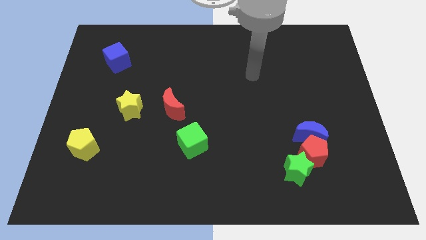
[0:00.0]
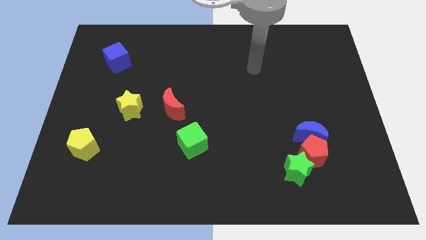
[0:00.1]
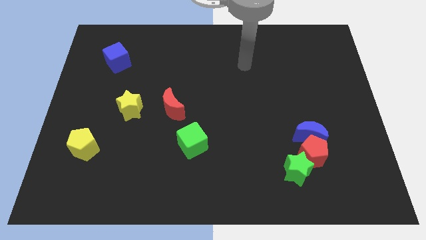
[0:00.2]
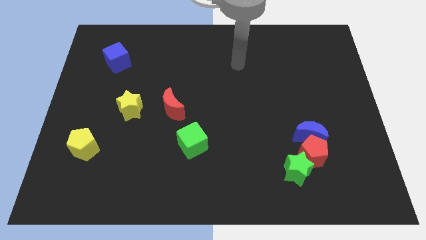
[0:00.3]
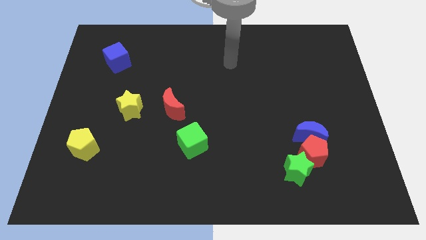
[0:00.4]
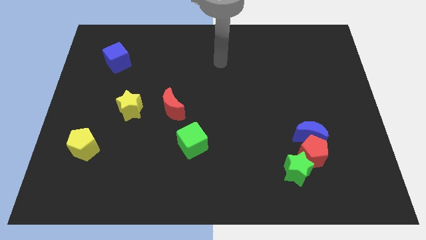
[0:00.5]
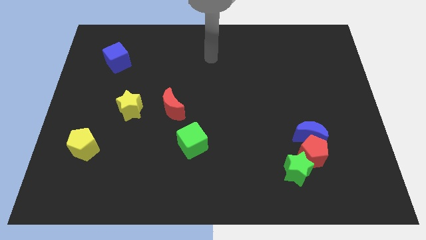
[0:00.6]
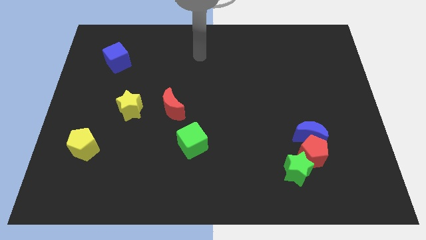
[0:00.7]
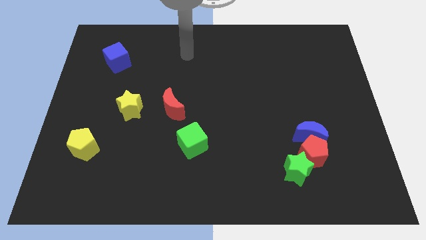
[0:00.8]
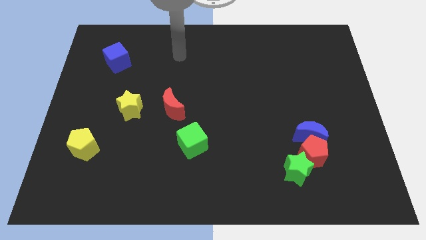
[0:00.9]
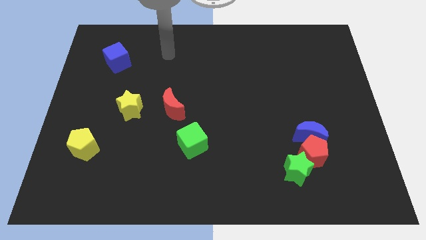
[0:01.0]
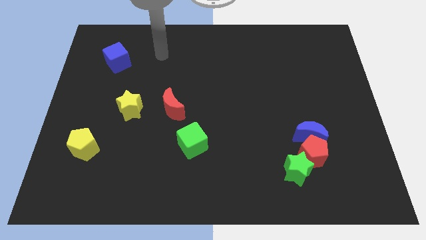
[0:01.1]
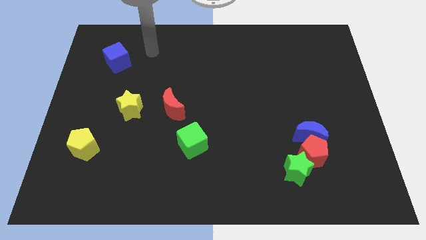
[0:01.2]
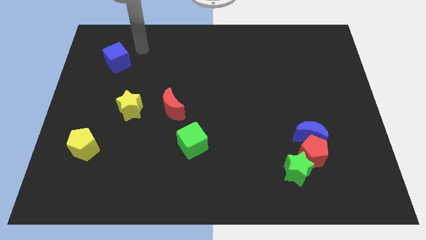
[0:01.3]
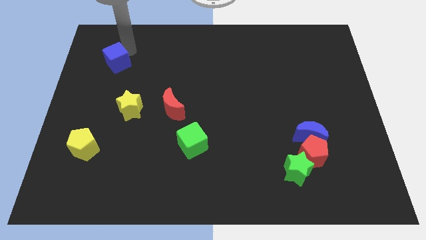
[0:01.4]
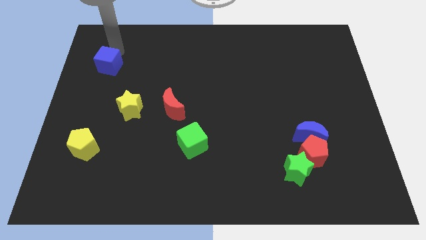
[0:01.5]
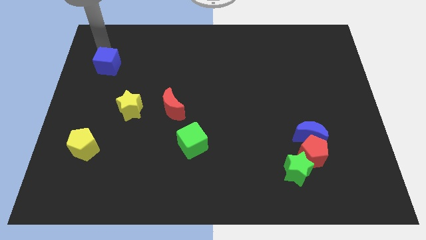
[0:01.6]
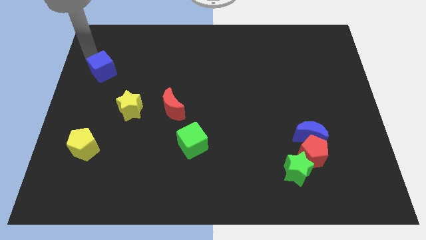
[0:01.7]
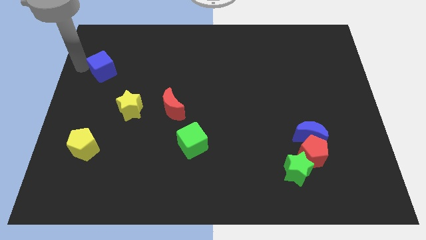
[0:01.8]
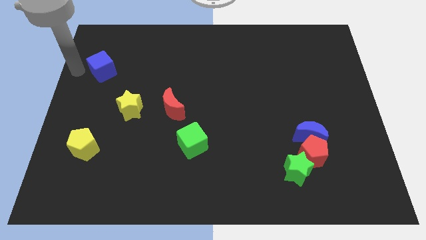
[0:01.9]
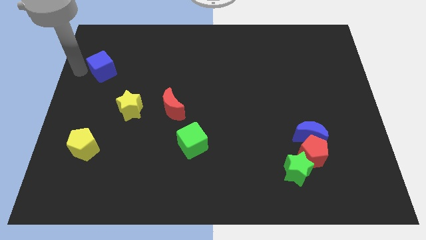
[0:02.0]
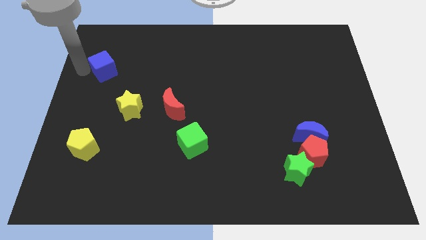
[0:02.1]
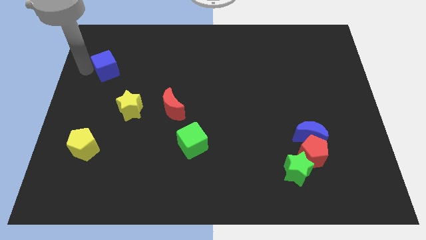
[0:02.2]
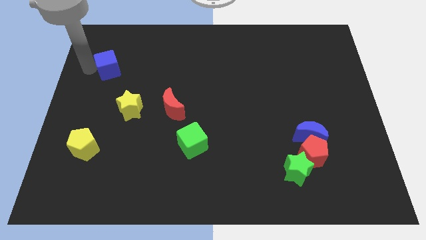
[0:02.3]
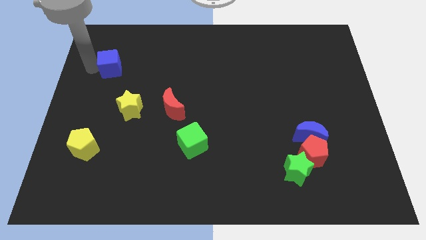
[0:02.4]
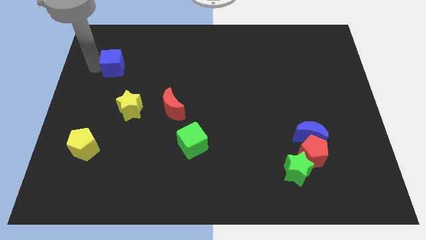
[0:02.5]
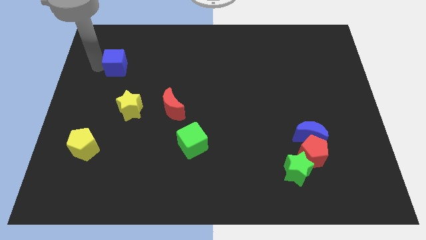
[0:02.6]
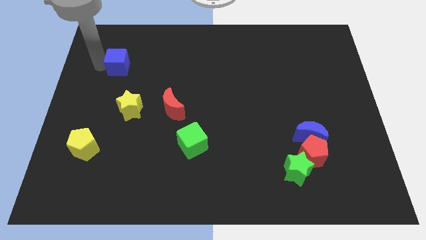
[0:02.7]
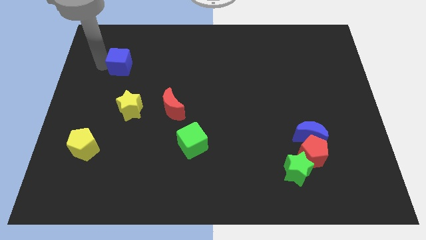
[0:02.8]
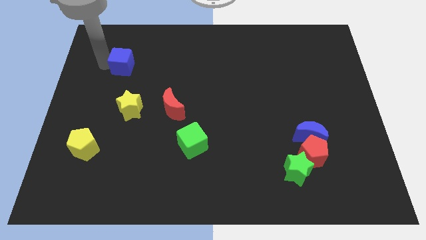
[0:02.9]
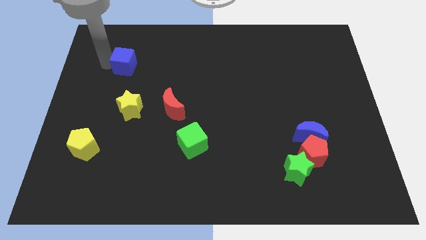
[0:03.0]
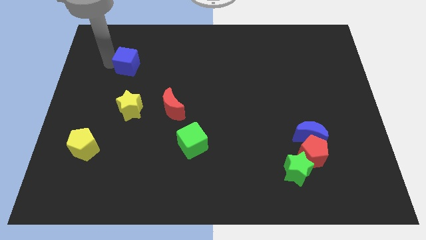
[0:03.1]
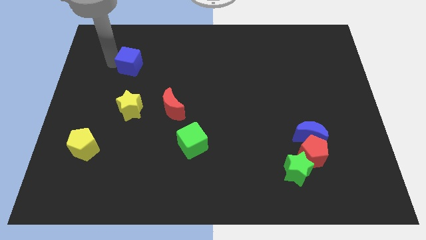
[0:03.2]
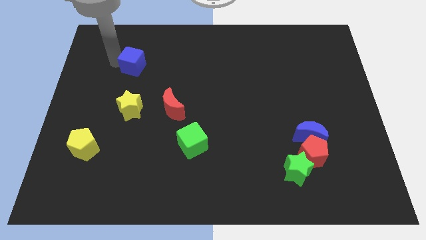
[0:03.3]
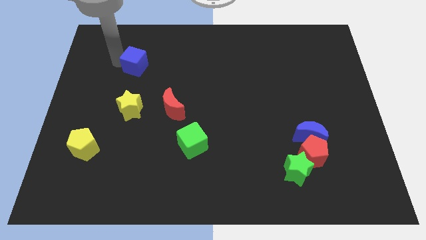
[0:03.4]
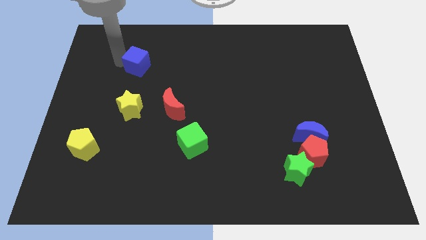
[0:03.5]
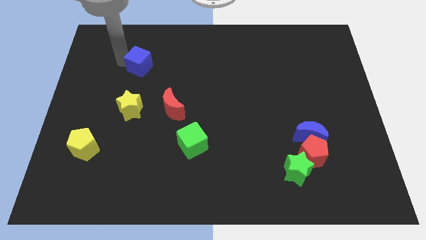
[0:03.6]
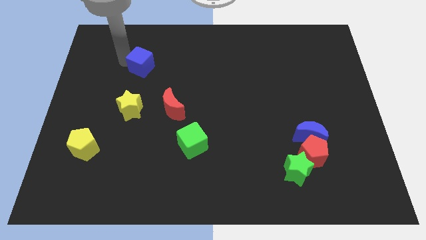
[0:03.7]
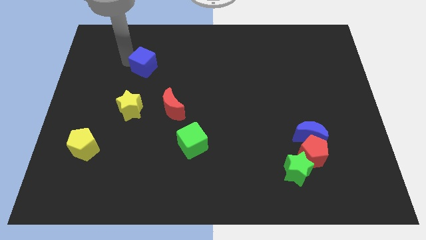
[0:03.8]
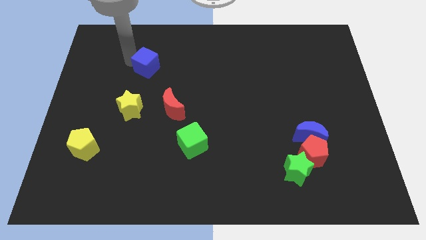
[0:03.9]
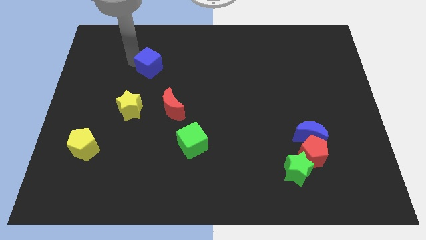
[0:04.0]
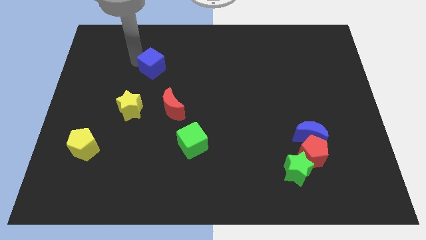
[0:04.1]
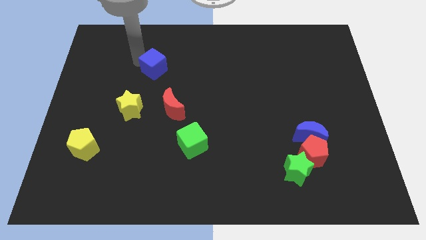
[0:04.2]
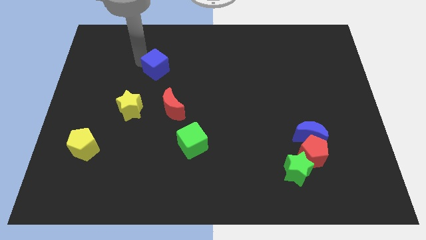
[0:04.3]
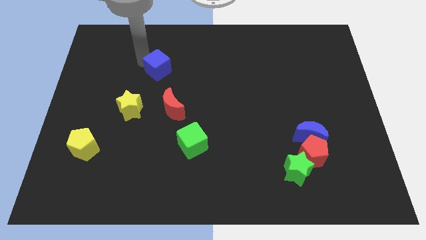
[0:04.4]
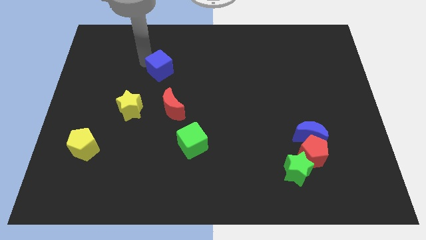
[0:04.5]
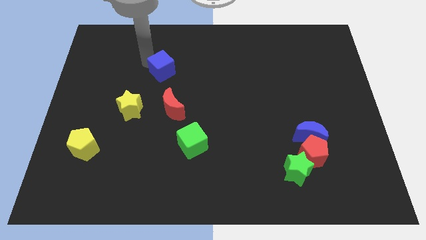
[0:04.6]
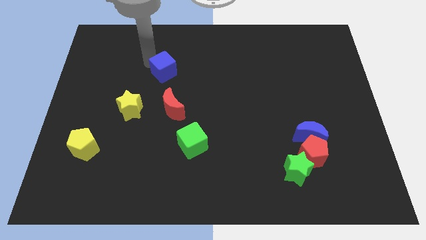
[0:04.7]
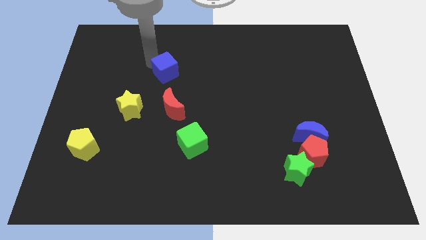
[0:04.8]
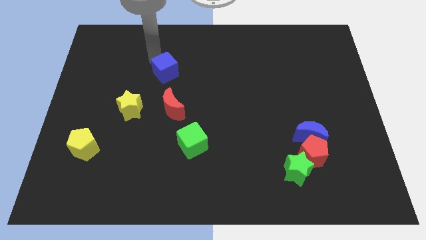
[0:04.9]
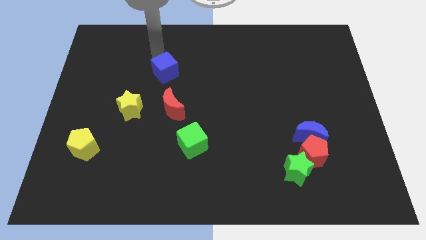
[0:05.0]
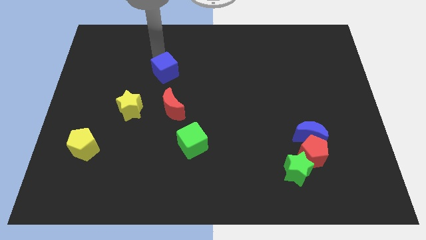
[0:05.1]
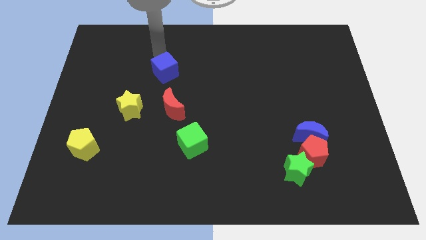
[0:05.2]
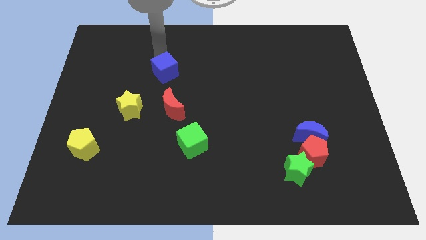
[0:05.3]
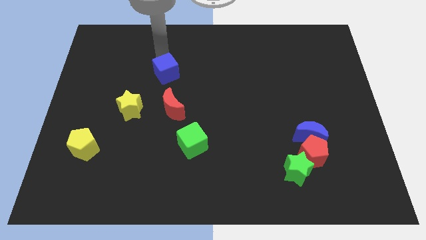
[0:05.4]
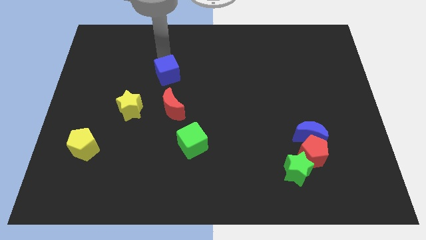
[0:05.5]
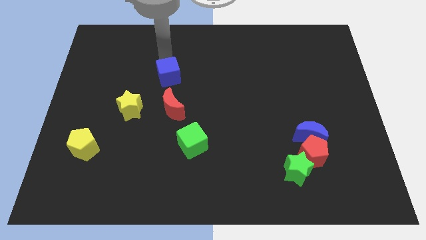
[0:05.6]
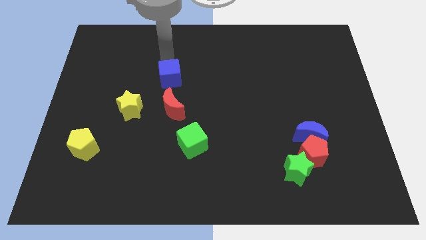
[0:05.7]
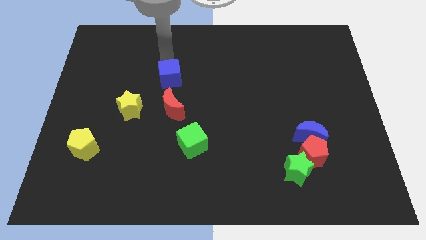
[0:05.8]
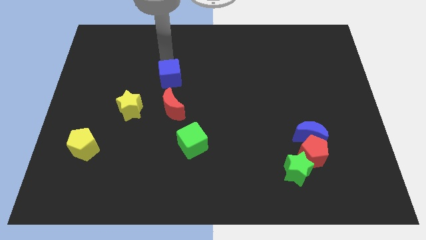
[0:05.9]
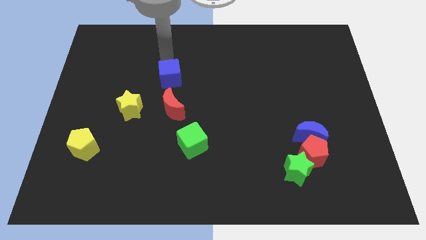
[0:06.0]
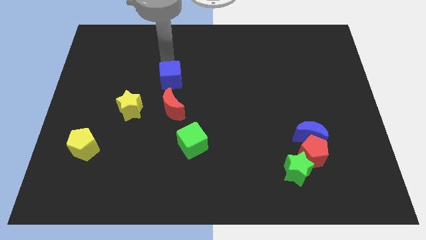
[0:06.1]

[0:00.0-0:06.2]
push the blue cube to the center of the board

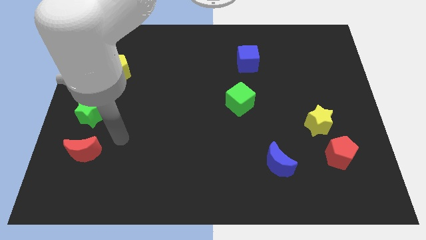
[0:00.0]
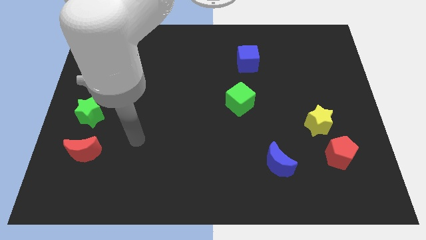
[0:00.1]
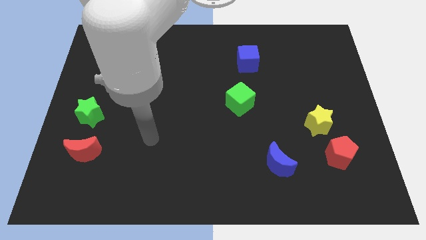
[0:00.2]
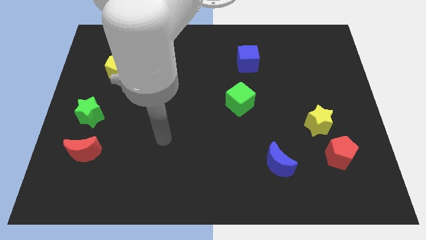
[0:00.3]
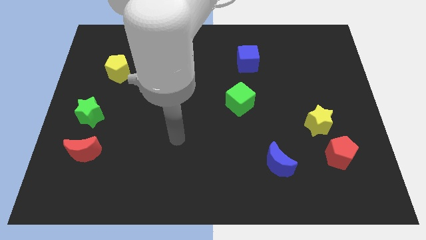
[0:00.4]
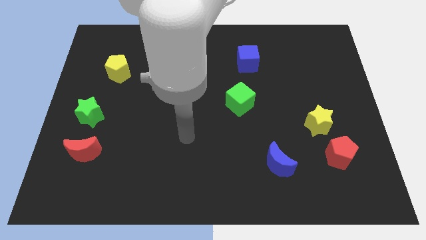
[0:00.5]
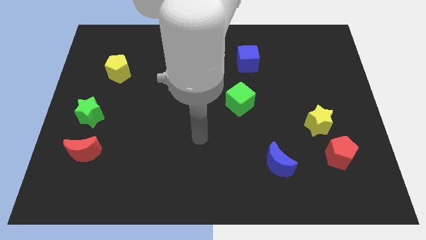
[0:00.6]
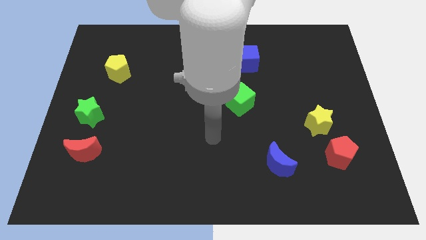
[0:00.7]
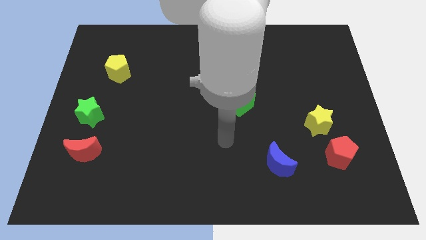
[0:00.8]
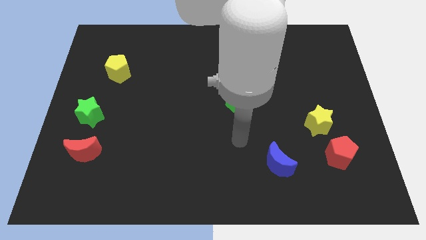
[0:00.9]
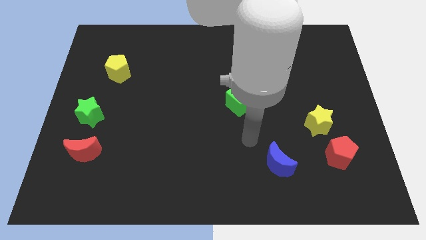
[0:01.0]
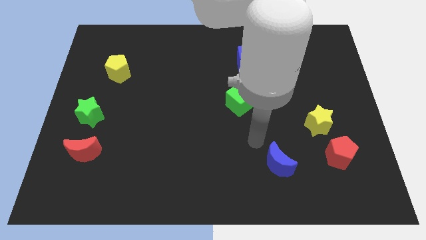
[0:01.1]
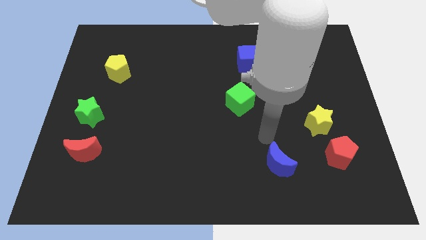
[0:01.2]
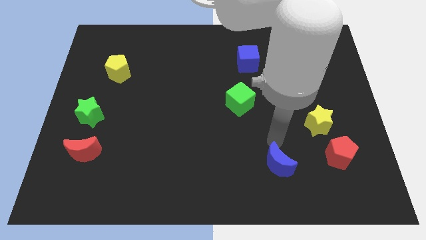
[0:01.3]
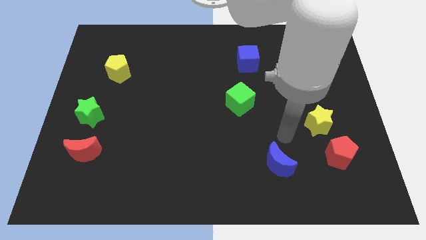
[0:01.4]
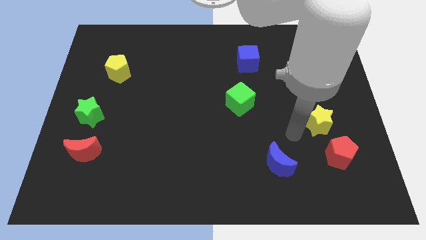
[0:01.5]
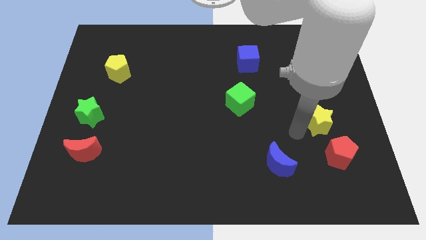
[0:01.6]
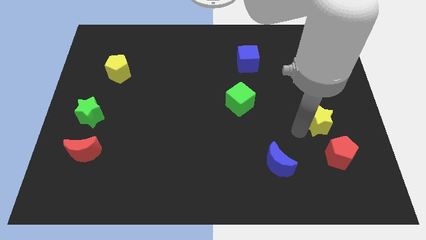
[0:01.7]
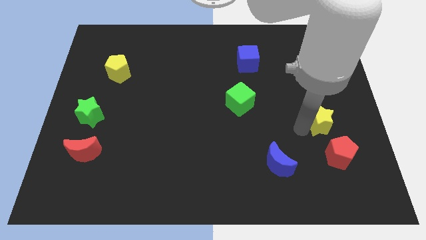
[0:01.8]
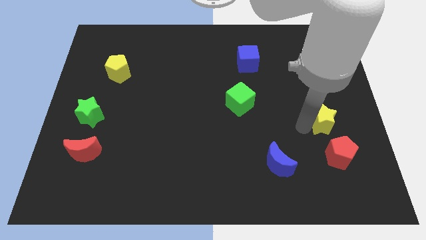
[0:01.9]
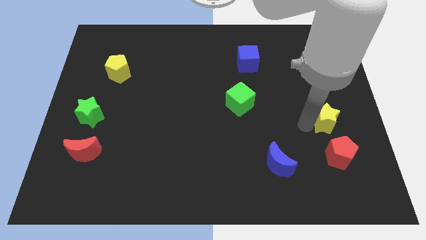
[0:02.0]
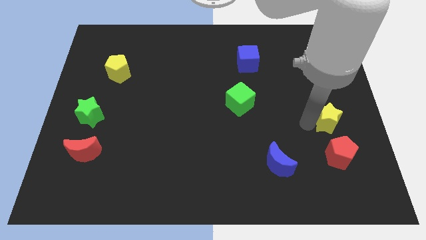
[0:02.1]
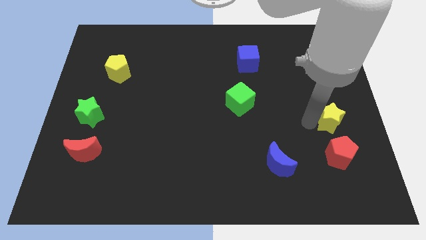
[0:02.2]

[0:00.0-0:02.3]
move the yellow star to the right side of the board
